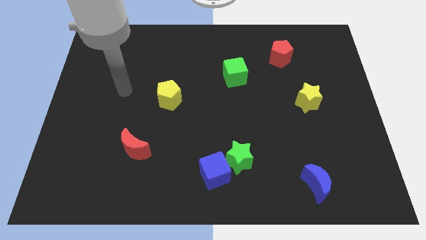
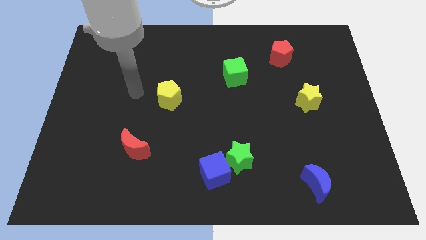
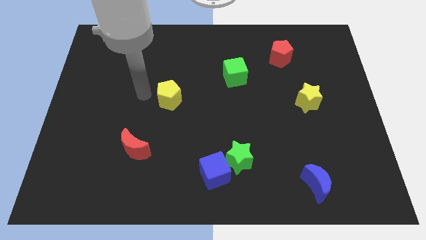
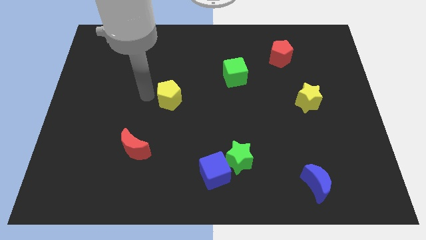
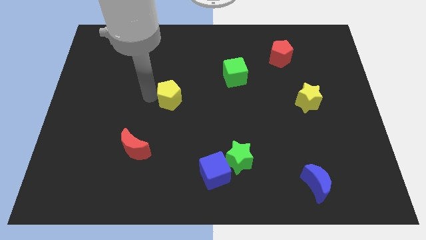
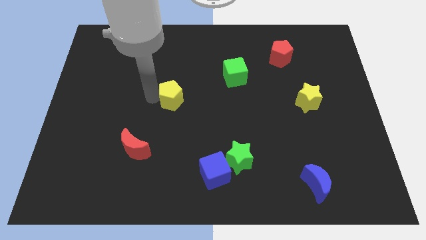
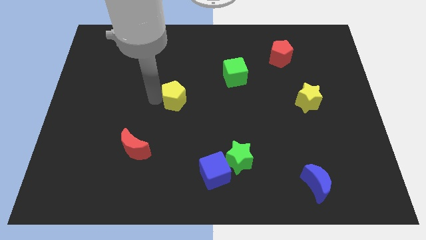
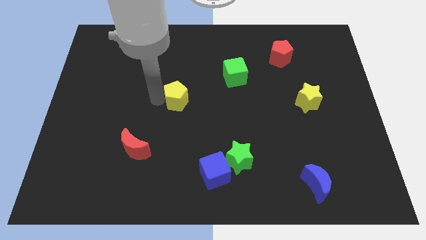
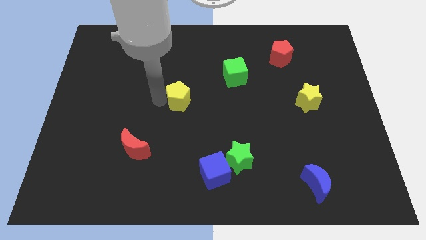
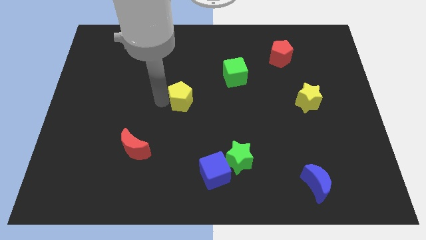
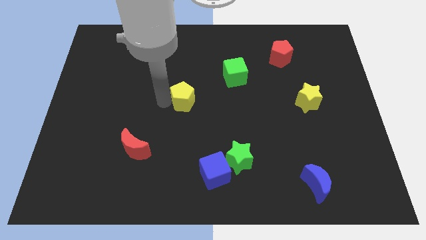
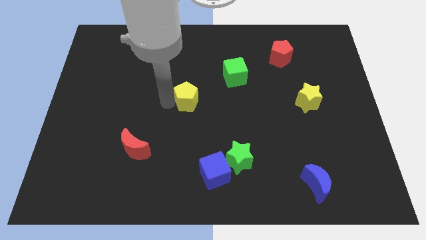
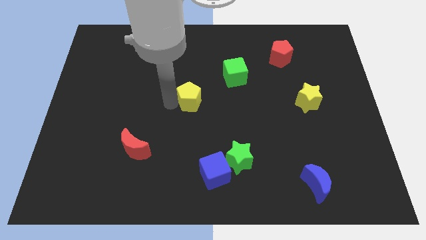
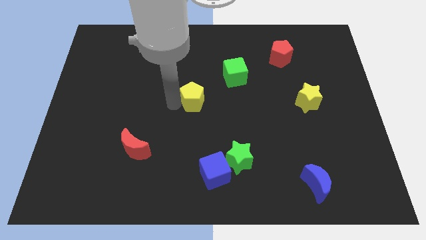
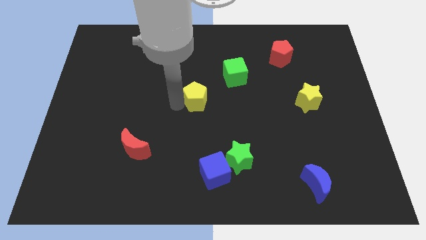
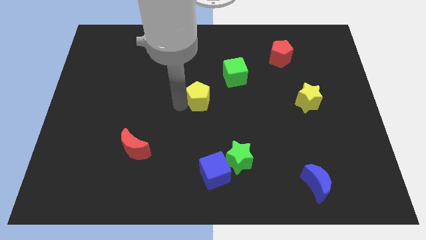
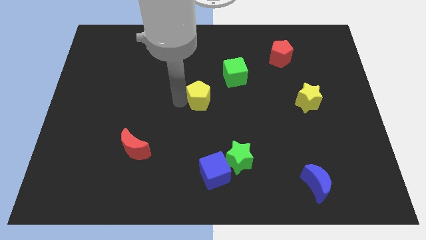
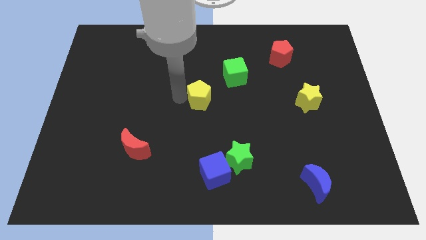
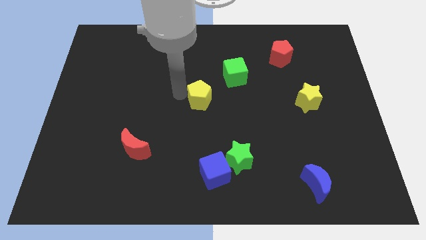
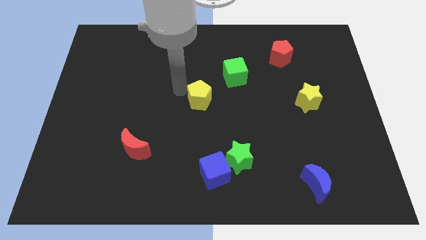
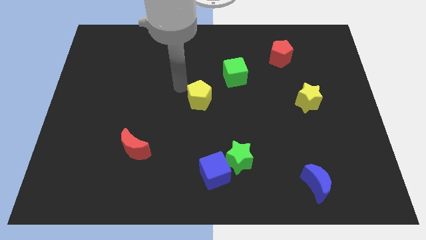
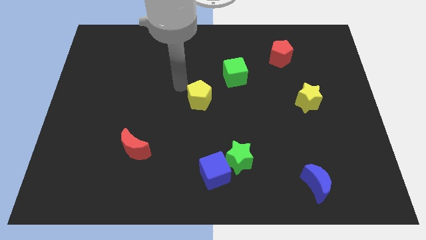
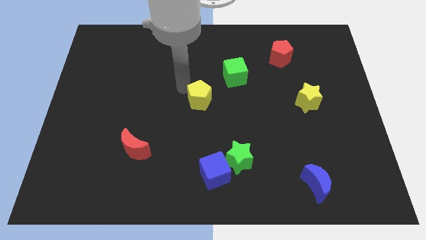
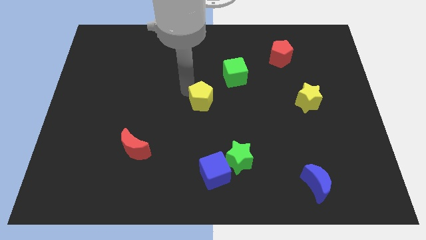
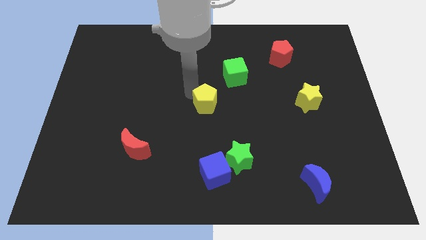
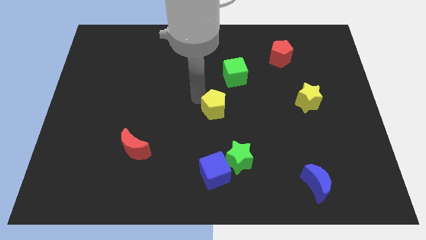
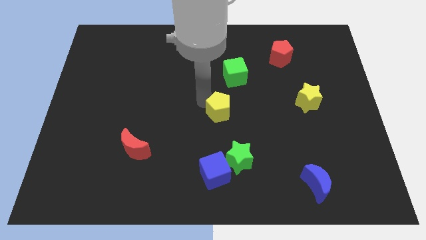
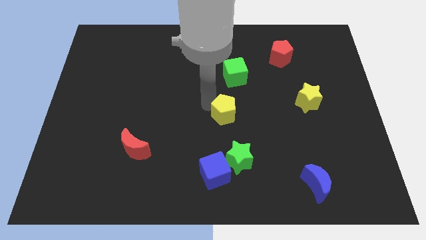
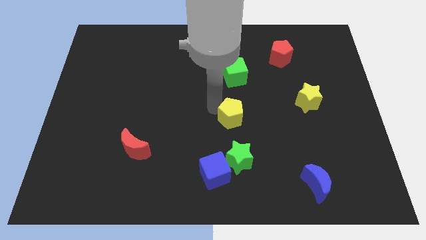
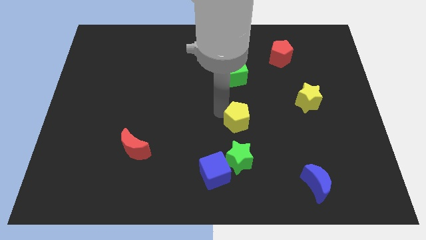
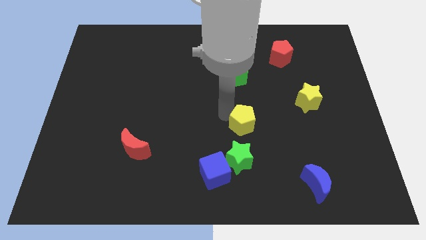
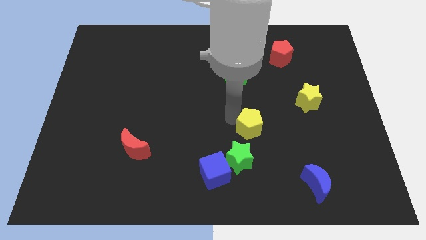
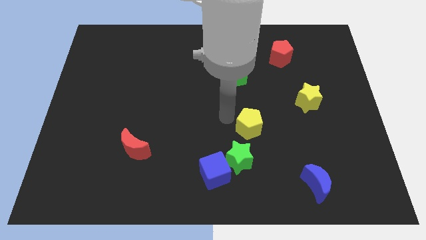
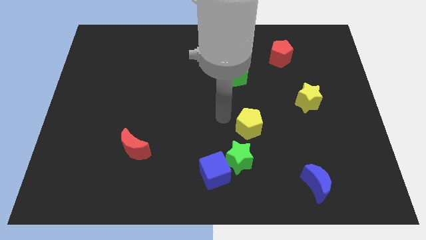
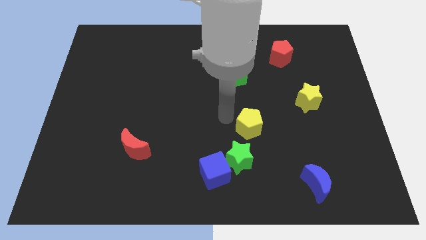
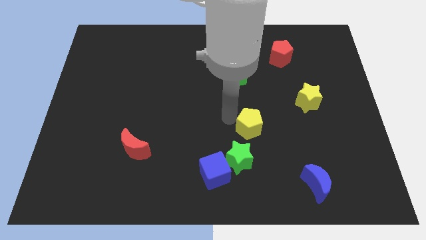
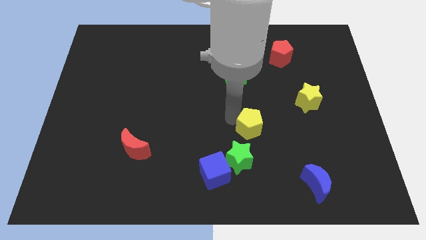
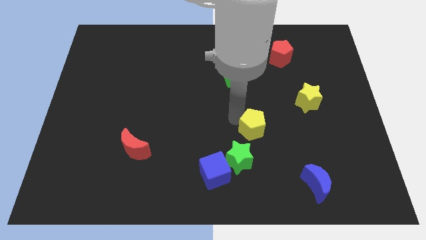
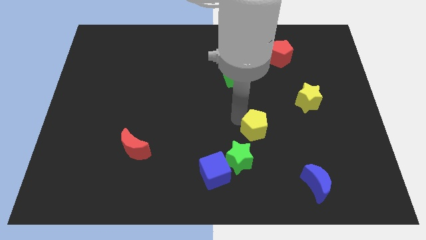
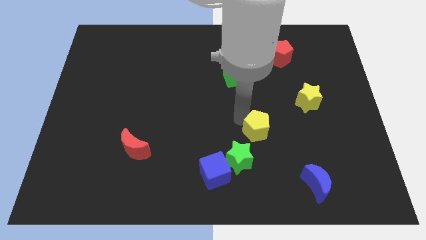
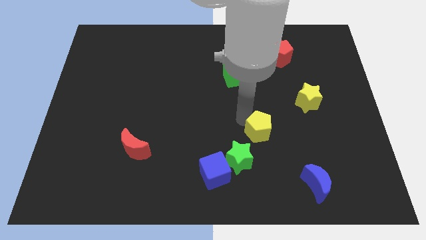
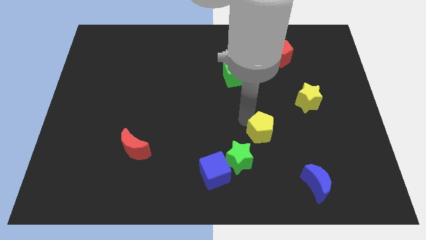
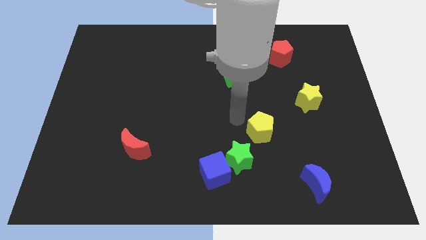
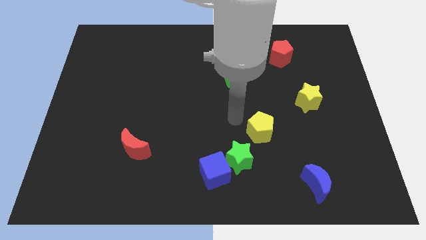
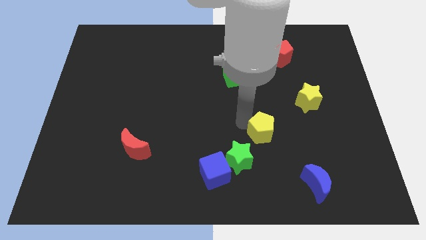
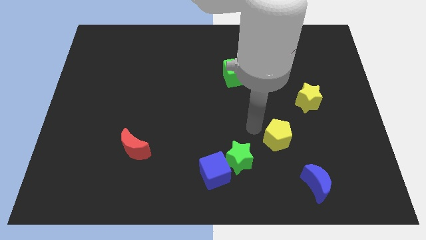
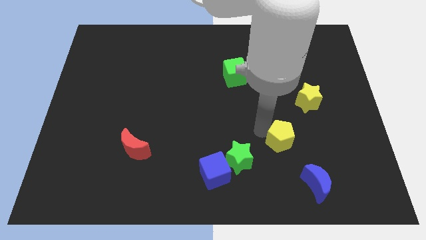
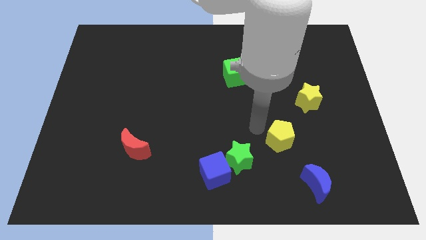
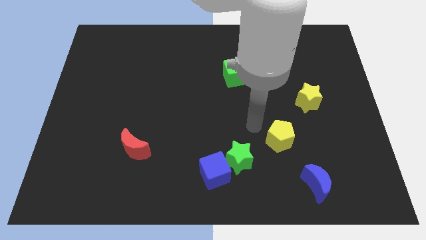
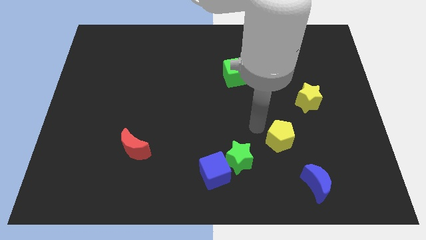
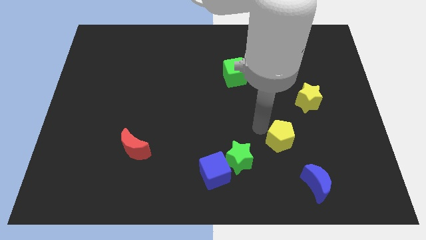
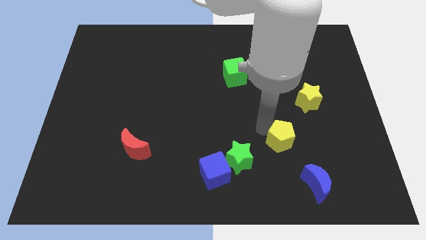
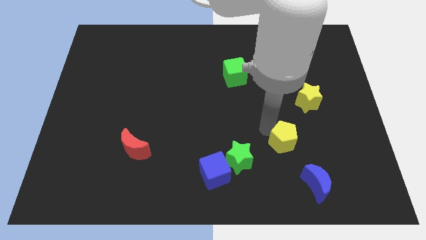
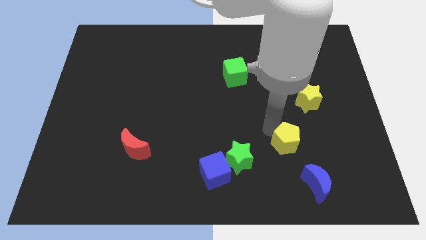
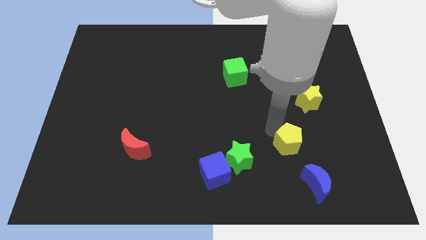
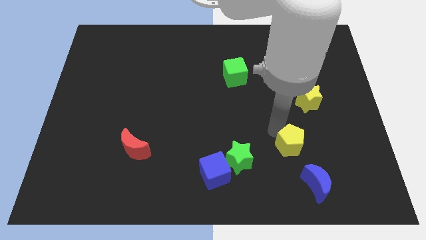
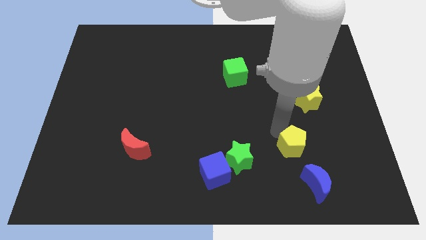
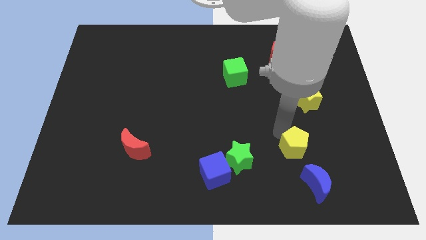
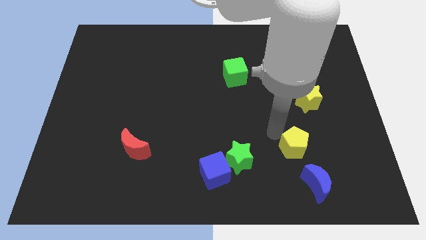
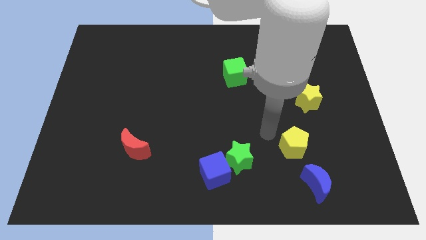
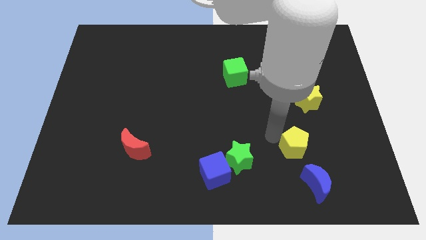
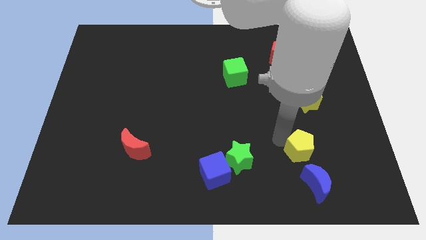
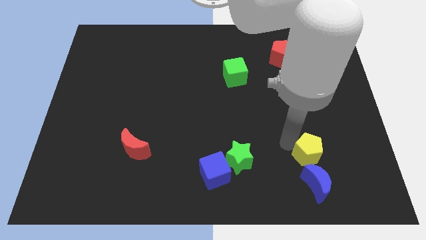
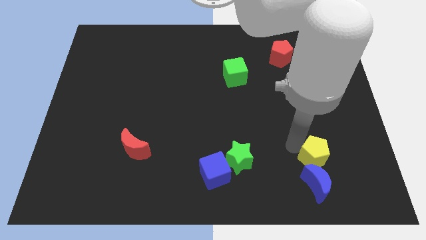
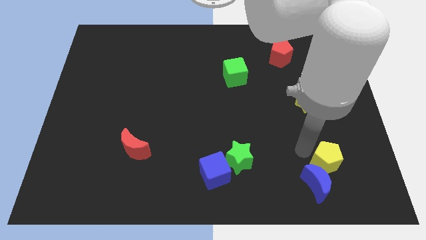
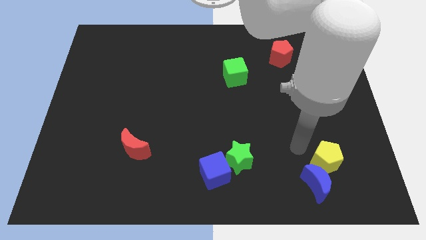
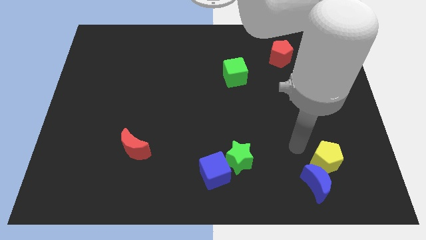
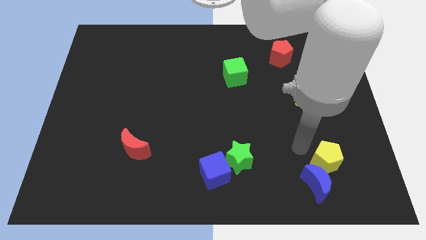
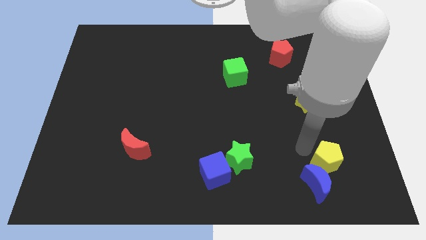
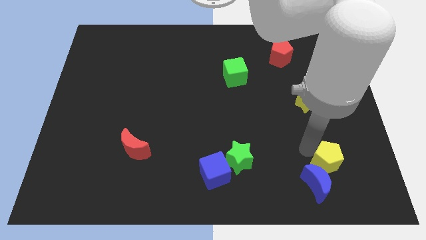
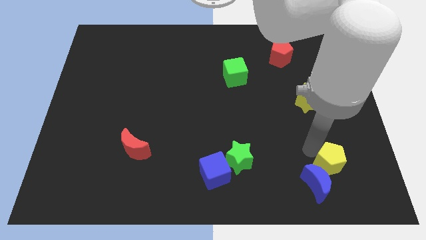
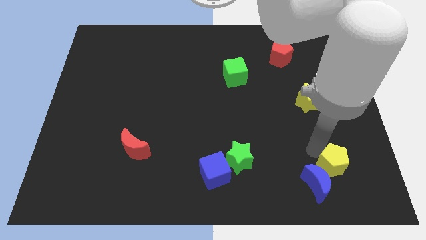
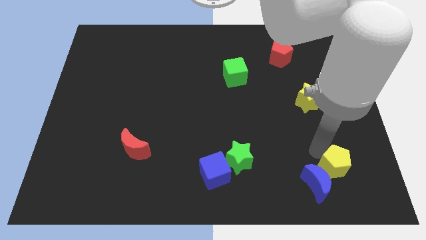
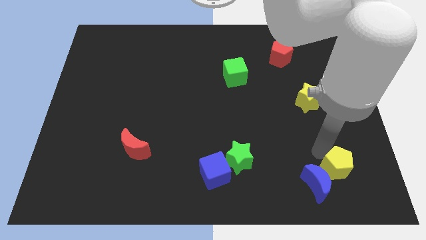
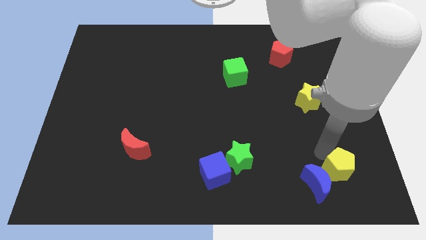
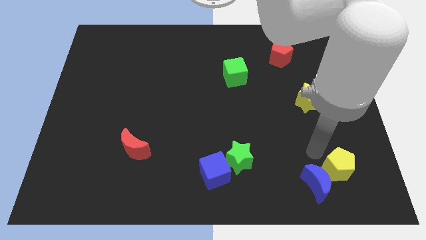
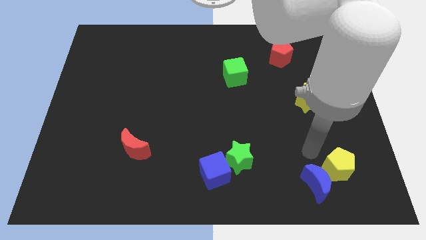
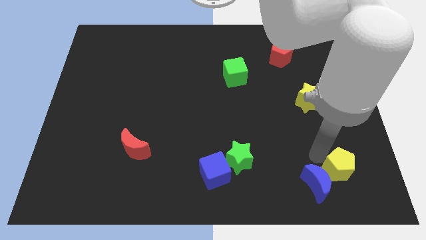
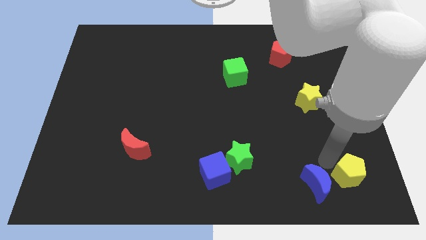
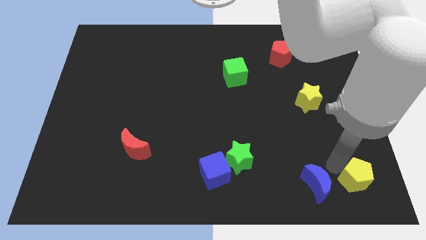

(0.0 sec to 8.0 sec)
slide the yellow pentagon to the bottom right
